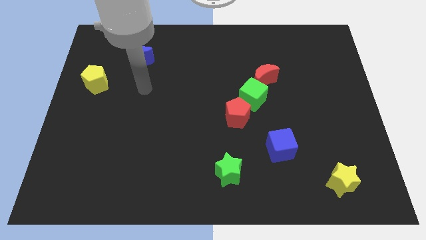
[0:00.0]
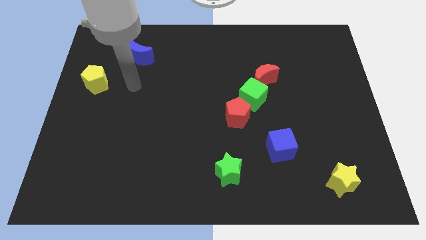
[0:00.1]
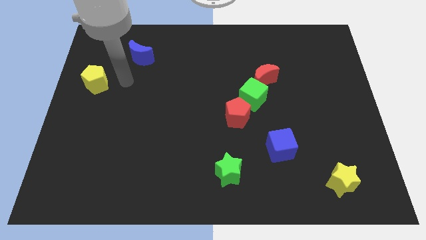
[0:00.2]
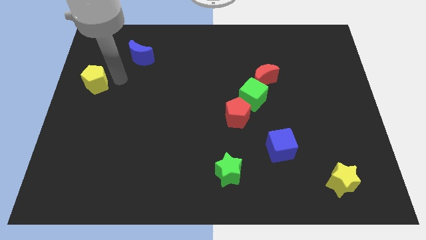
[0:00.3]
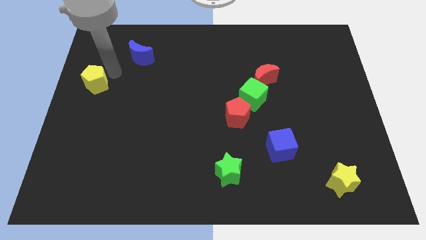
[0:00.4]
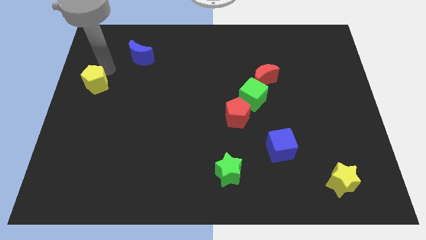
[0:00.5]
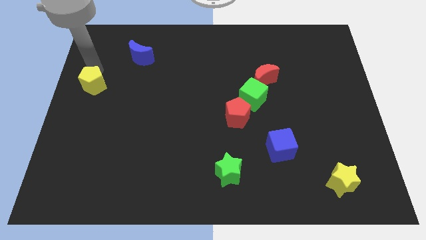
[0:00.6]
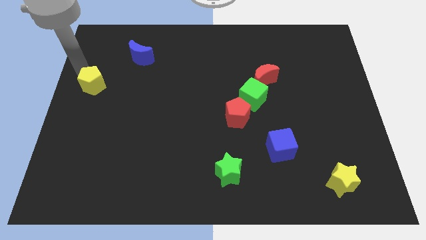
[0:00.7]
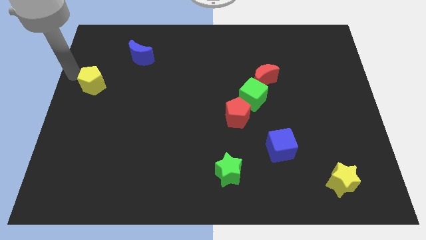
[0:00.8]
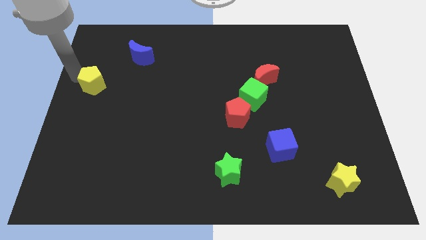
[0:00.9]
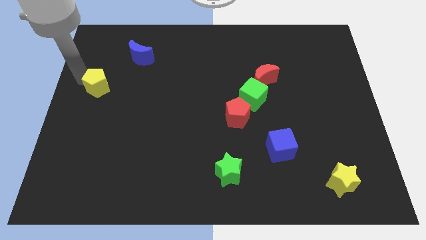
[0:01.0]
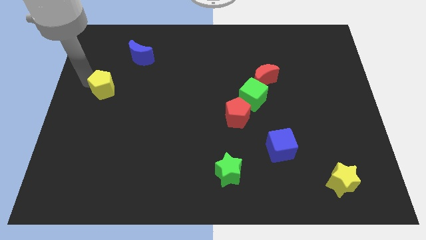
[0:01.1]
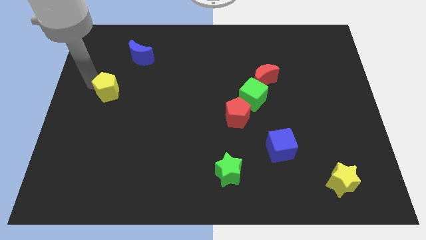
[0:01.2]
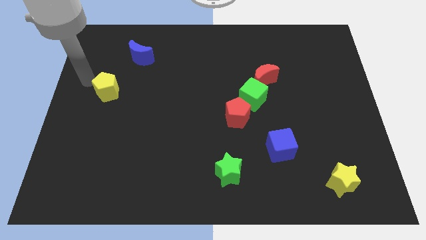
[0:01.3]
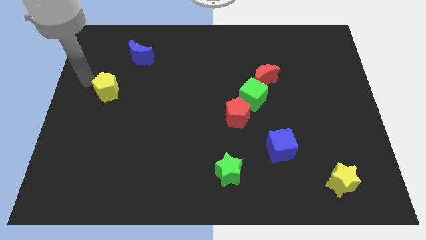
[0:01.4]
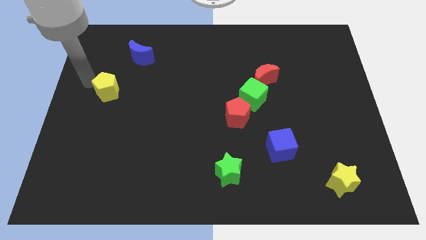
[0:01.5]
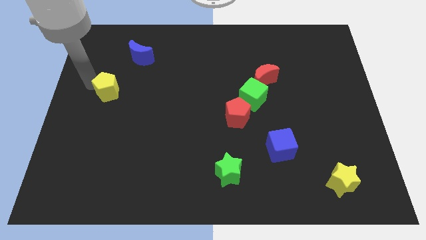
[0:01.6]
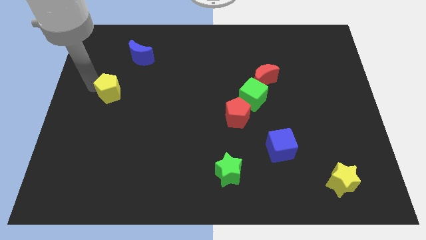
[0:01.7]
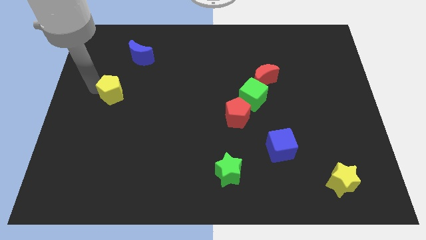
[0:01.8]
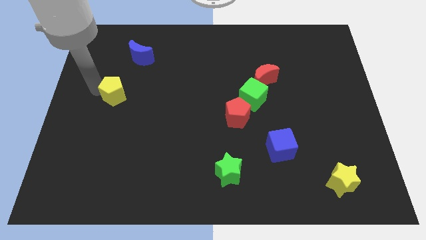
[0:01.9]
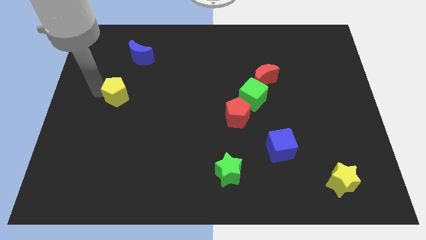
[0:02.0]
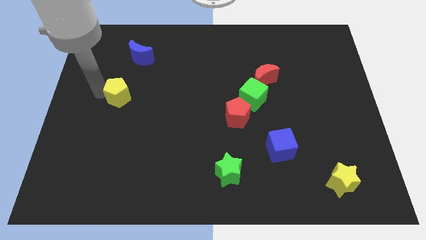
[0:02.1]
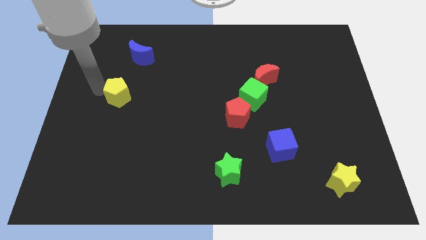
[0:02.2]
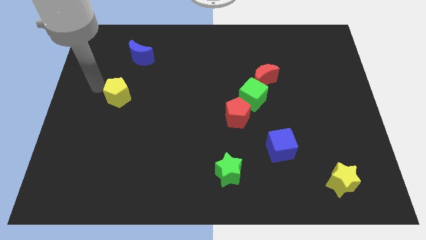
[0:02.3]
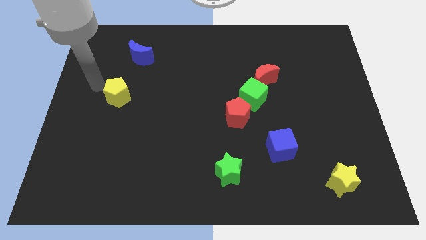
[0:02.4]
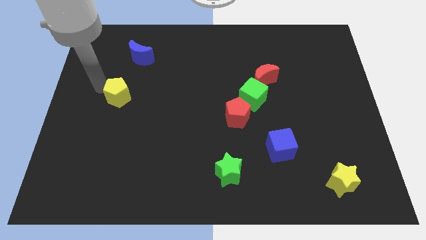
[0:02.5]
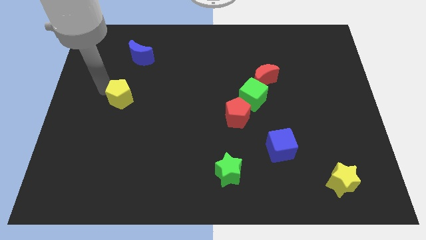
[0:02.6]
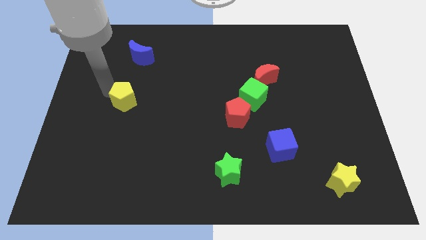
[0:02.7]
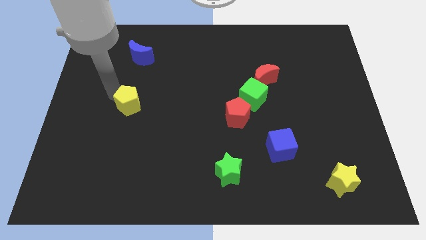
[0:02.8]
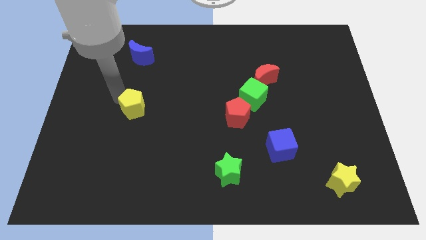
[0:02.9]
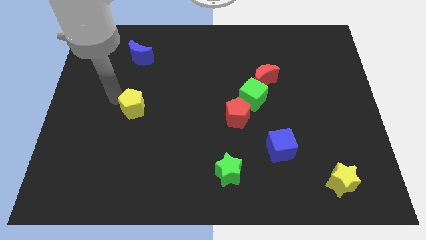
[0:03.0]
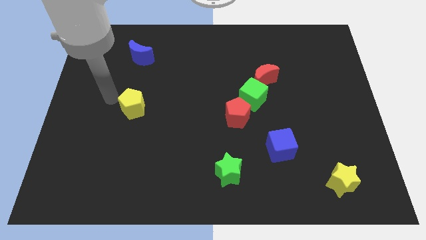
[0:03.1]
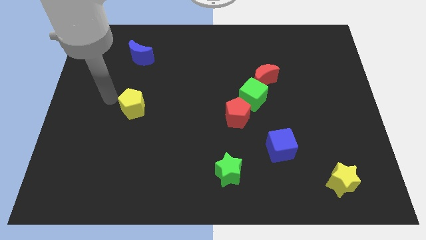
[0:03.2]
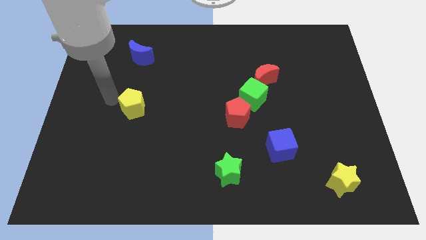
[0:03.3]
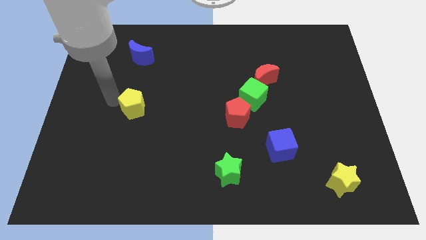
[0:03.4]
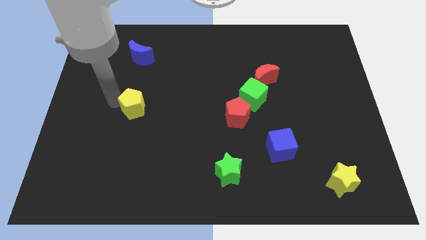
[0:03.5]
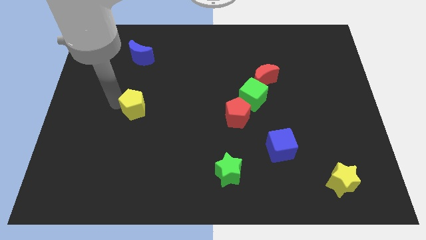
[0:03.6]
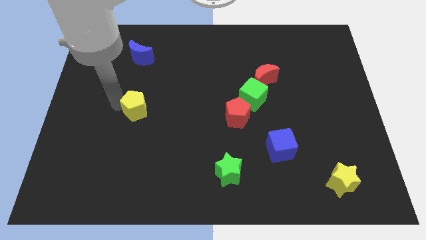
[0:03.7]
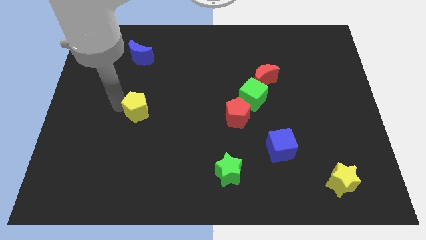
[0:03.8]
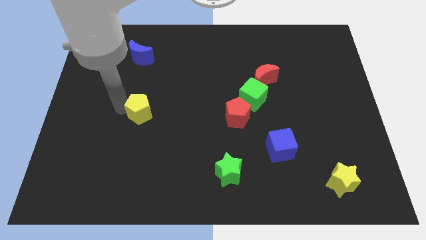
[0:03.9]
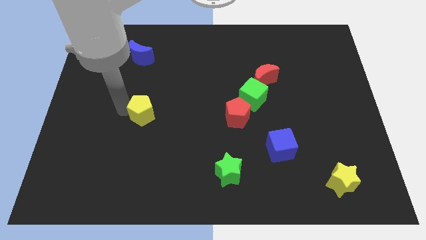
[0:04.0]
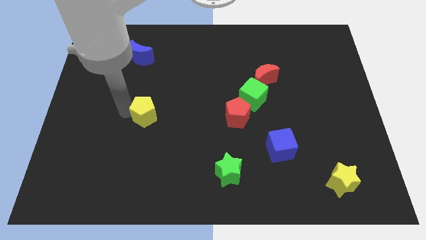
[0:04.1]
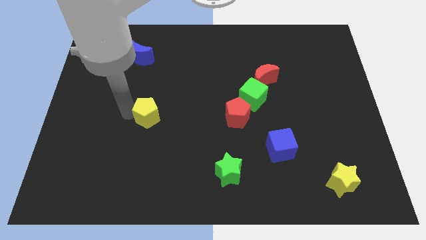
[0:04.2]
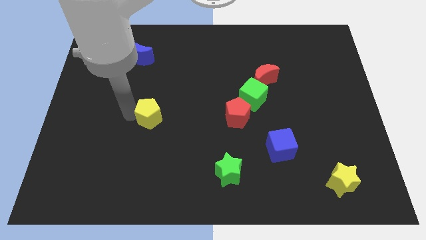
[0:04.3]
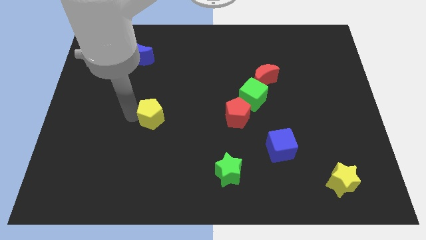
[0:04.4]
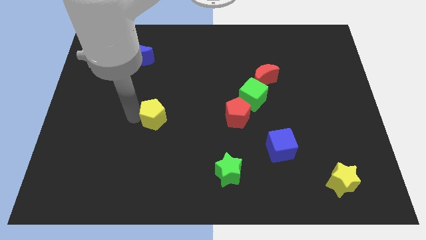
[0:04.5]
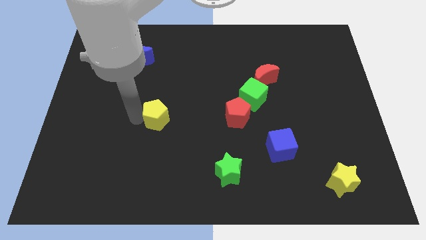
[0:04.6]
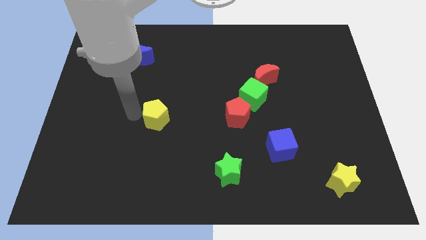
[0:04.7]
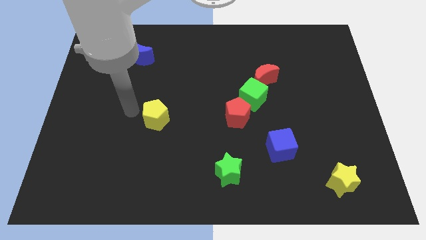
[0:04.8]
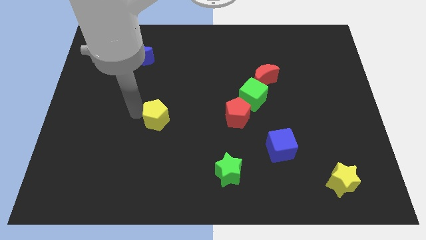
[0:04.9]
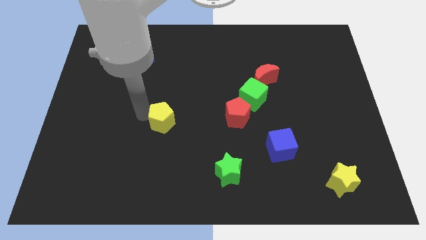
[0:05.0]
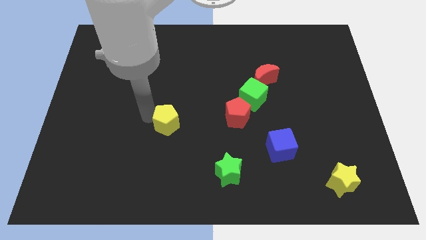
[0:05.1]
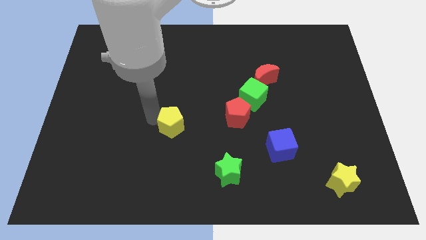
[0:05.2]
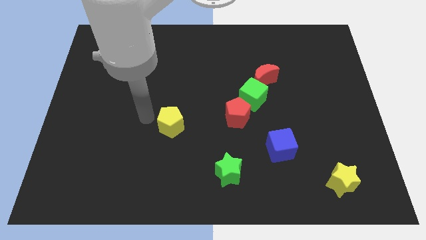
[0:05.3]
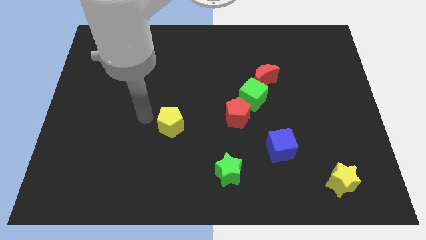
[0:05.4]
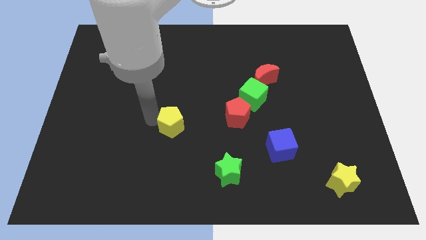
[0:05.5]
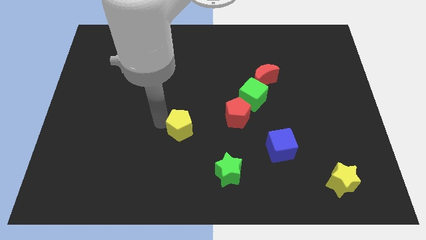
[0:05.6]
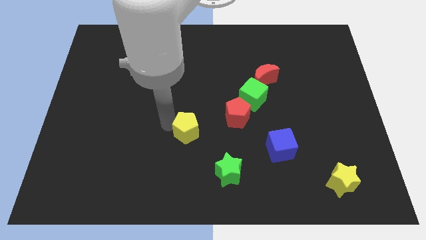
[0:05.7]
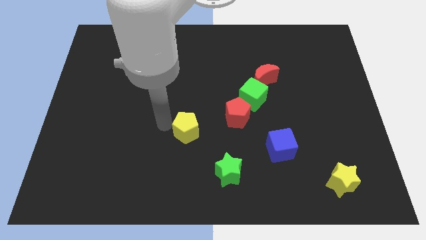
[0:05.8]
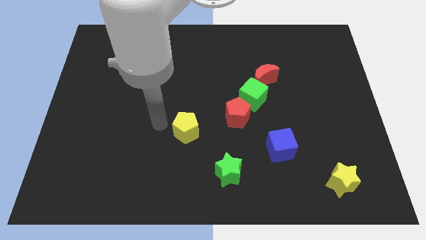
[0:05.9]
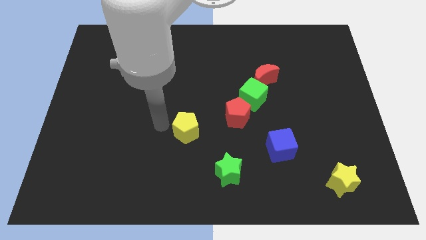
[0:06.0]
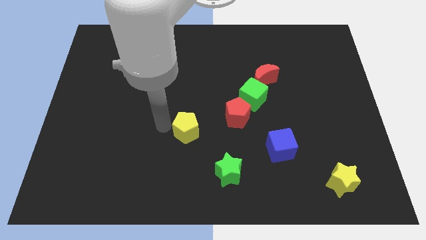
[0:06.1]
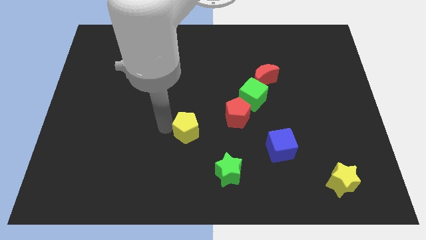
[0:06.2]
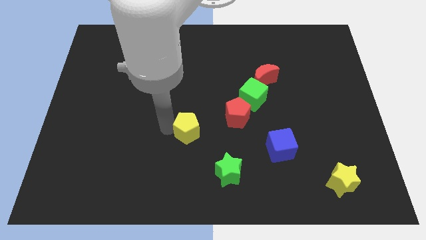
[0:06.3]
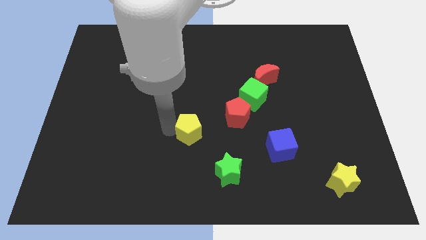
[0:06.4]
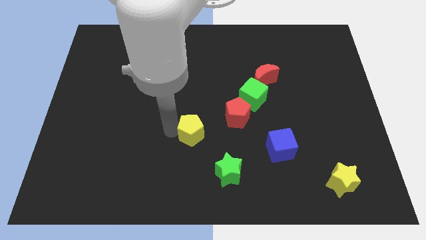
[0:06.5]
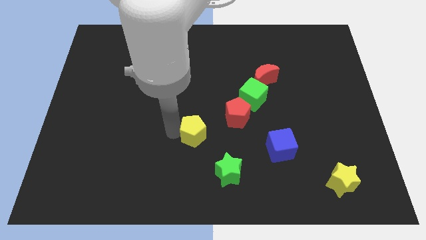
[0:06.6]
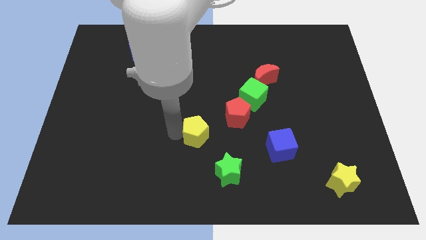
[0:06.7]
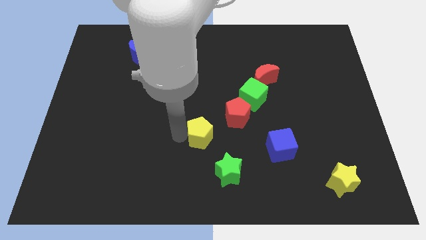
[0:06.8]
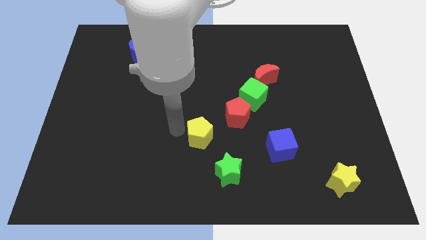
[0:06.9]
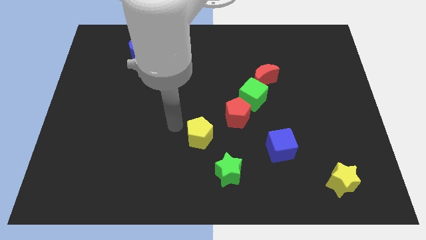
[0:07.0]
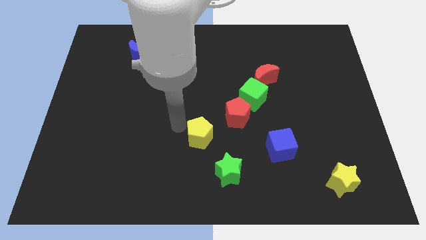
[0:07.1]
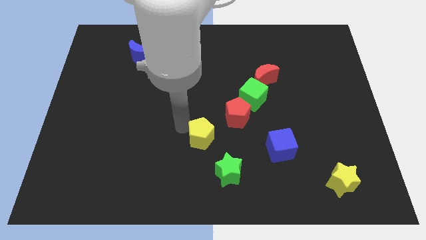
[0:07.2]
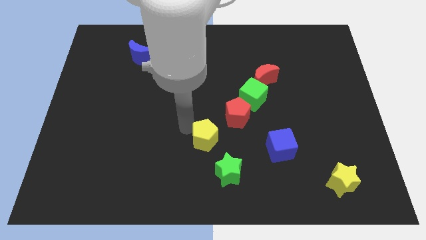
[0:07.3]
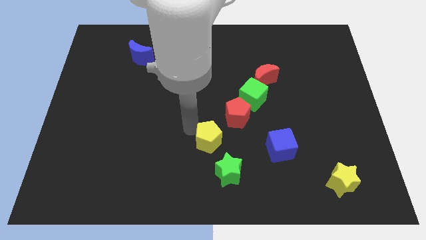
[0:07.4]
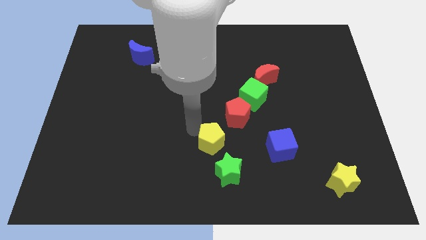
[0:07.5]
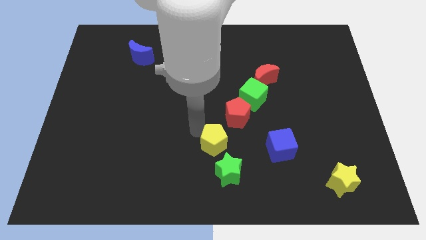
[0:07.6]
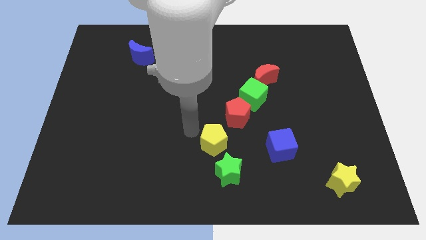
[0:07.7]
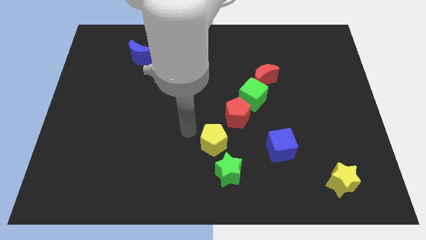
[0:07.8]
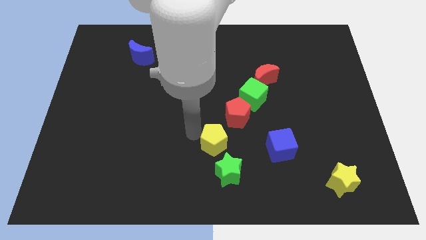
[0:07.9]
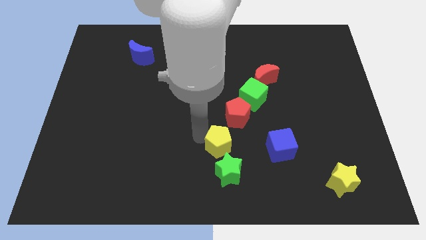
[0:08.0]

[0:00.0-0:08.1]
push the yellow pentagon below the red pentagon
